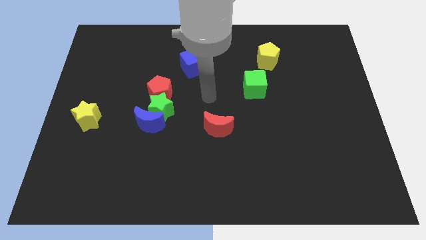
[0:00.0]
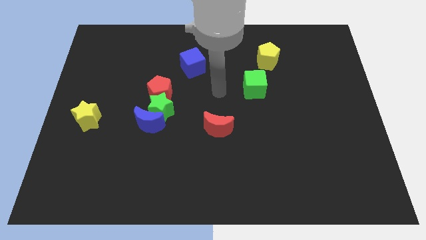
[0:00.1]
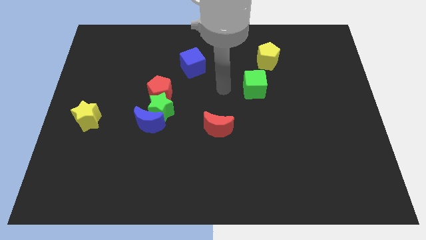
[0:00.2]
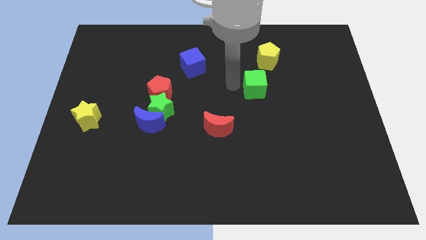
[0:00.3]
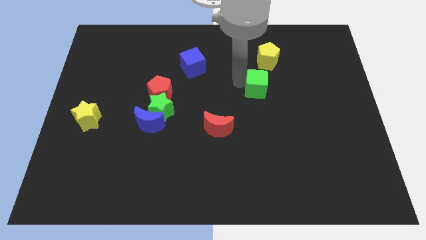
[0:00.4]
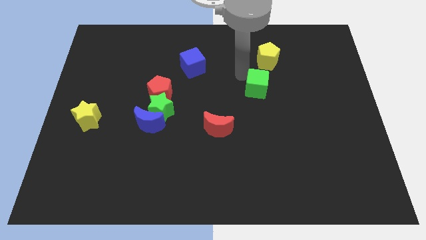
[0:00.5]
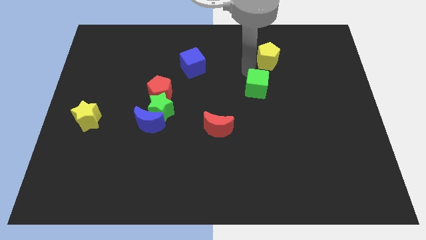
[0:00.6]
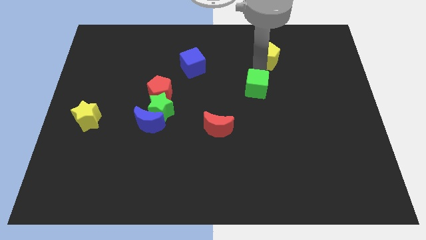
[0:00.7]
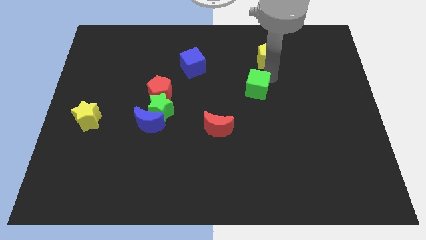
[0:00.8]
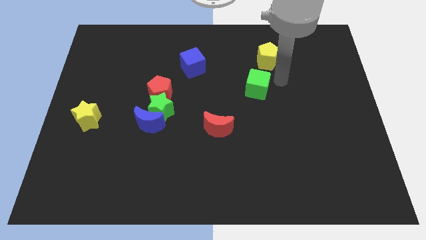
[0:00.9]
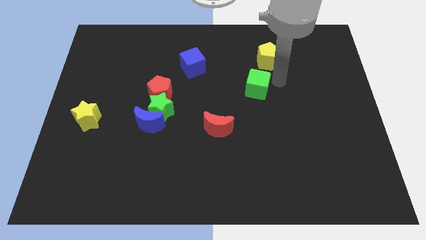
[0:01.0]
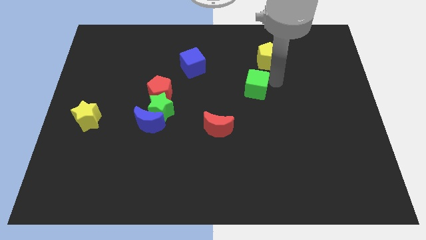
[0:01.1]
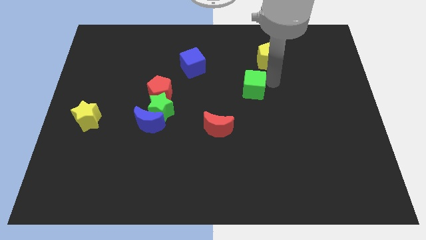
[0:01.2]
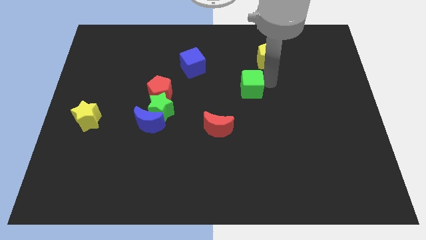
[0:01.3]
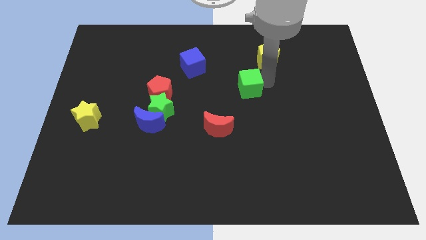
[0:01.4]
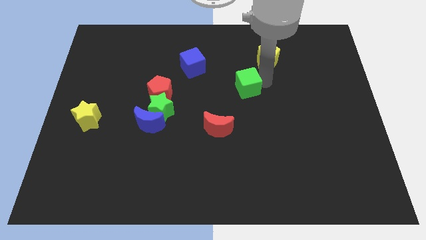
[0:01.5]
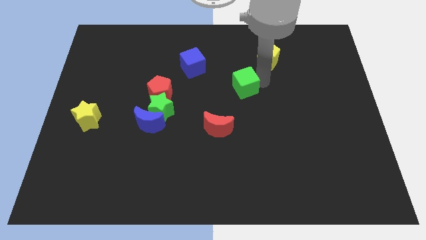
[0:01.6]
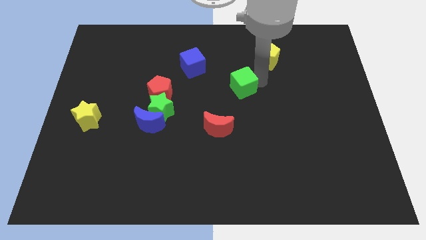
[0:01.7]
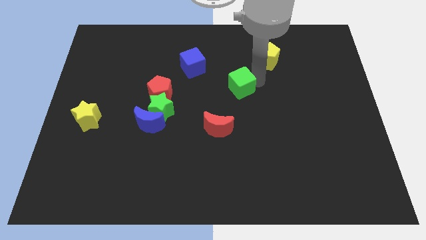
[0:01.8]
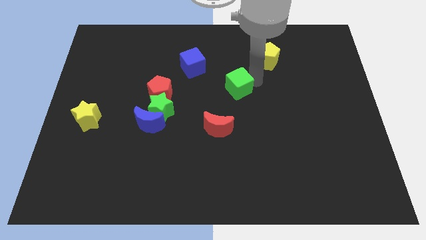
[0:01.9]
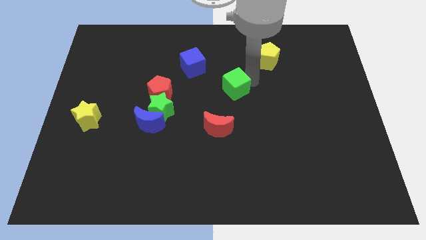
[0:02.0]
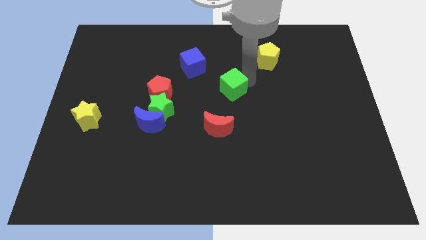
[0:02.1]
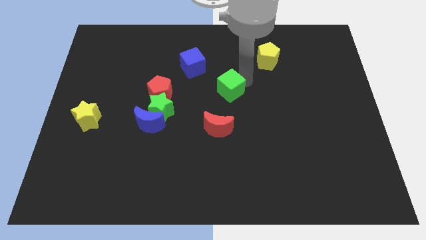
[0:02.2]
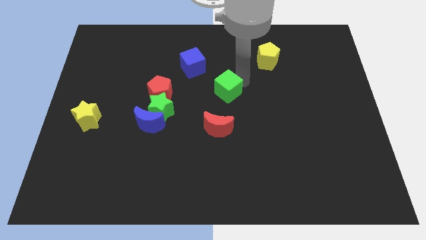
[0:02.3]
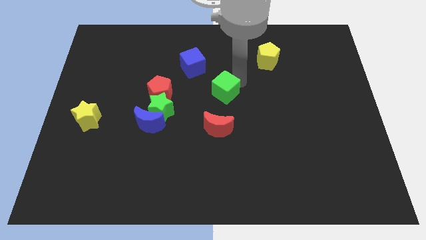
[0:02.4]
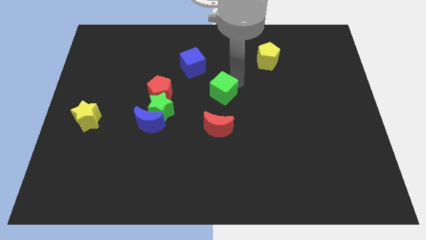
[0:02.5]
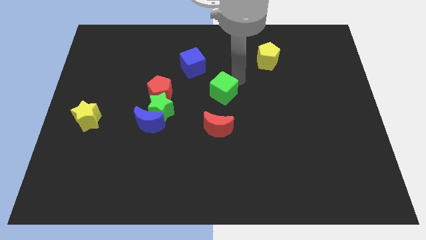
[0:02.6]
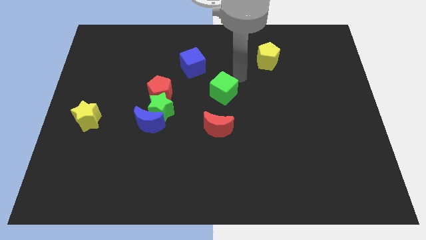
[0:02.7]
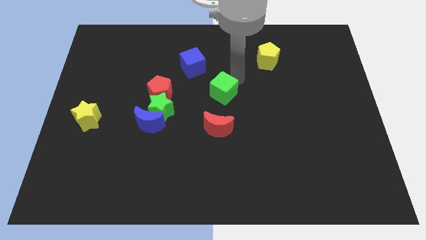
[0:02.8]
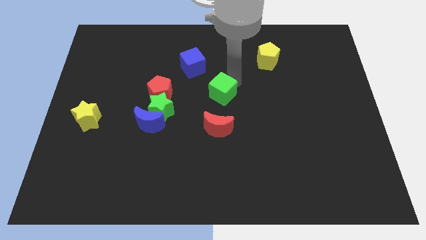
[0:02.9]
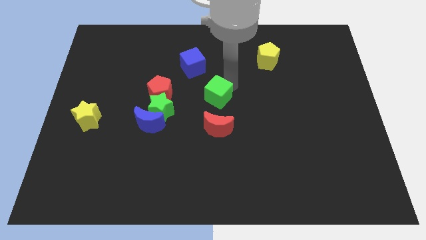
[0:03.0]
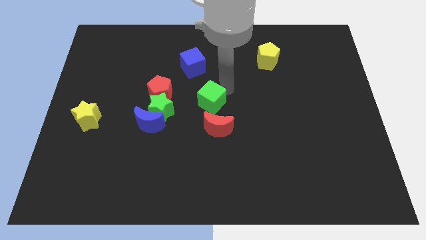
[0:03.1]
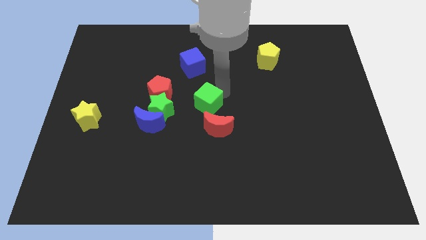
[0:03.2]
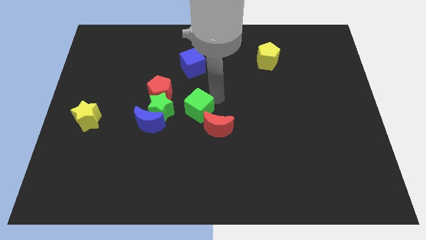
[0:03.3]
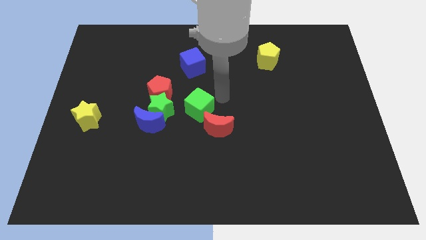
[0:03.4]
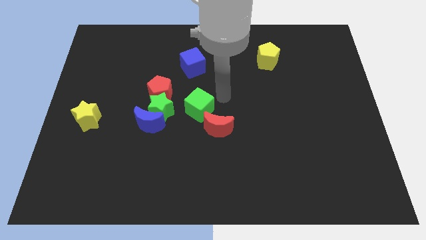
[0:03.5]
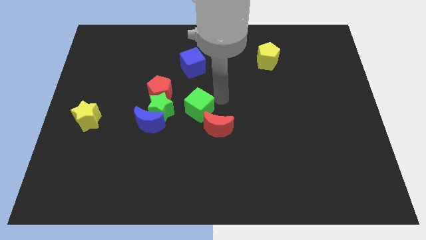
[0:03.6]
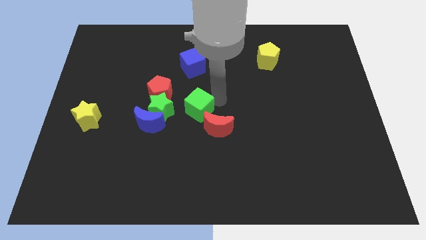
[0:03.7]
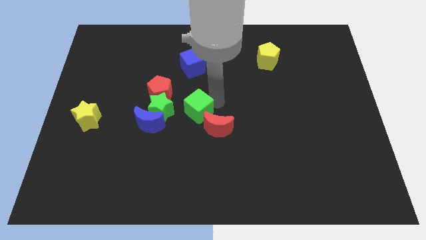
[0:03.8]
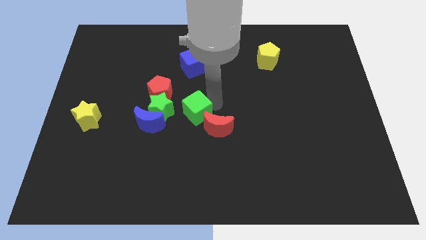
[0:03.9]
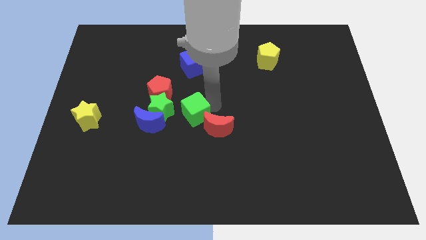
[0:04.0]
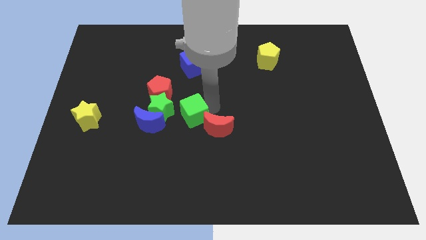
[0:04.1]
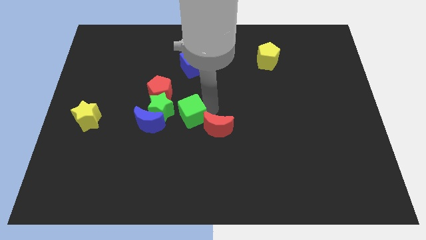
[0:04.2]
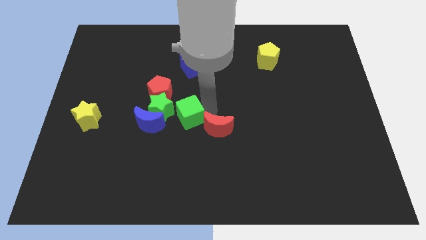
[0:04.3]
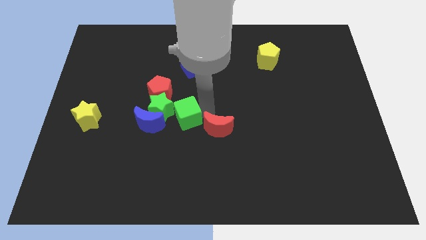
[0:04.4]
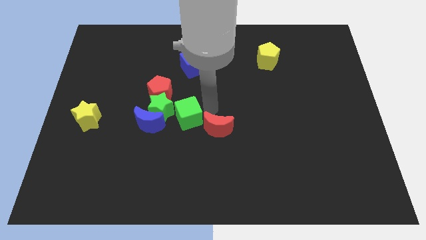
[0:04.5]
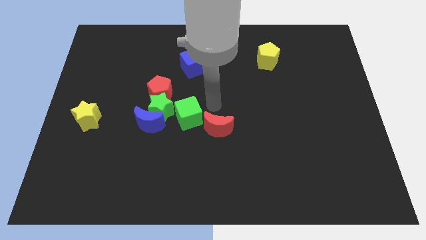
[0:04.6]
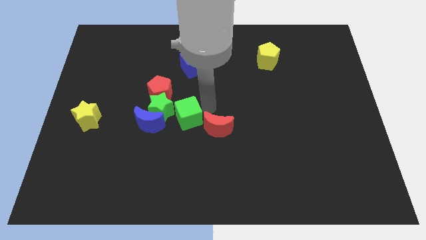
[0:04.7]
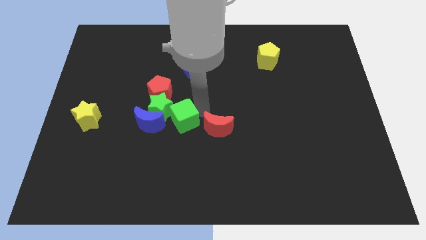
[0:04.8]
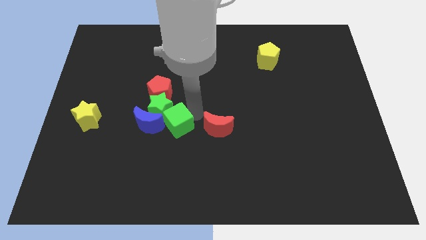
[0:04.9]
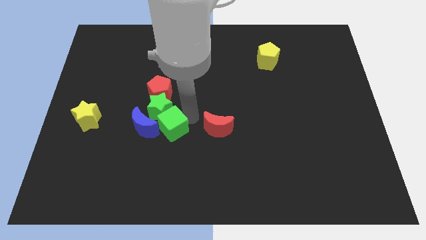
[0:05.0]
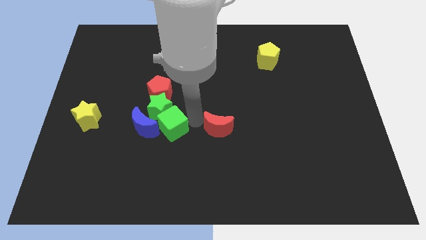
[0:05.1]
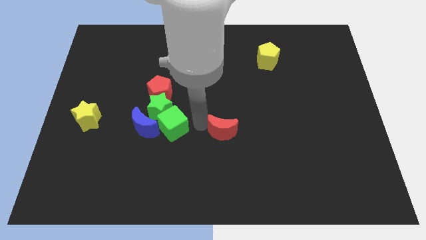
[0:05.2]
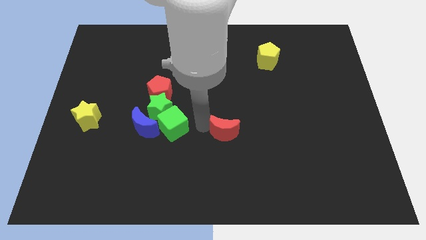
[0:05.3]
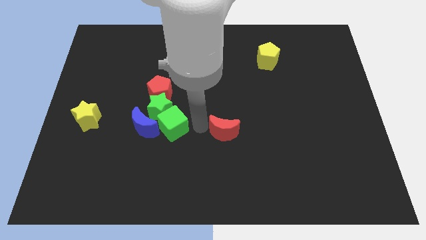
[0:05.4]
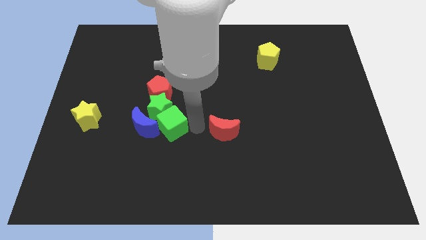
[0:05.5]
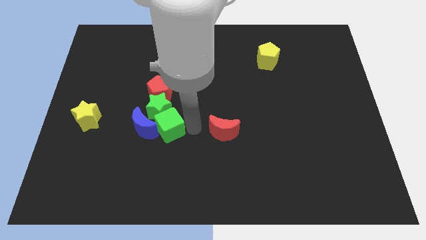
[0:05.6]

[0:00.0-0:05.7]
put the green cube to the blue moon
